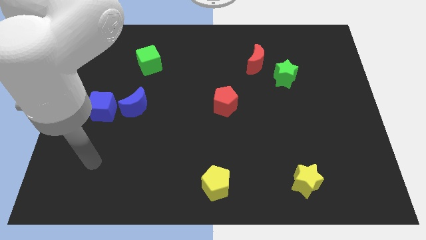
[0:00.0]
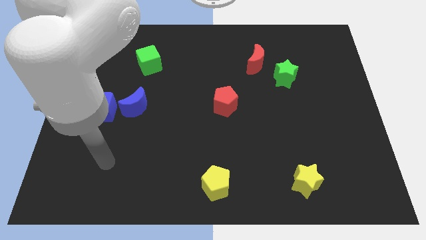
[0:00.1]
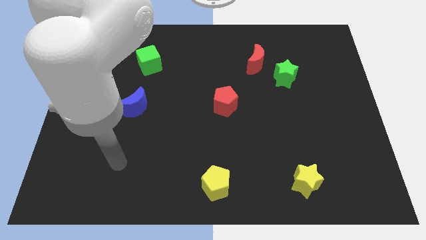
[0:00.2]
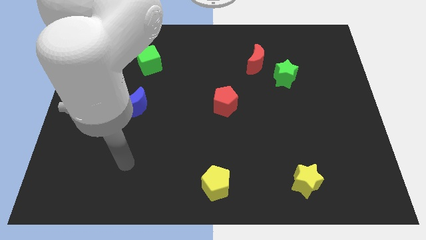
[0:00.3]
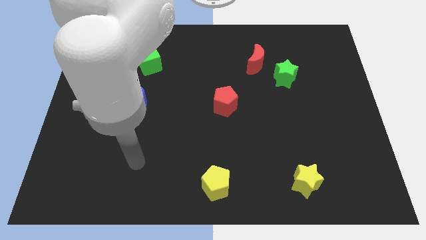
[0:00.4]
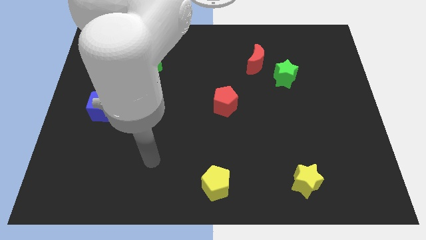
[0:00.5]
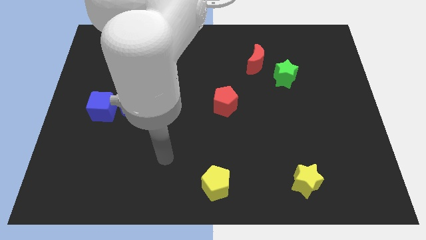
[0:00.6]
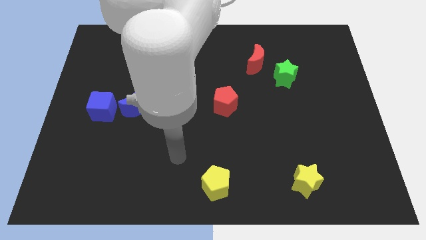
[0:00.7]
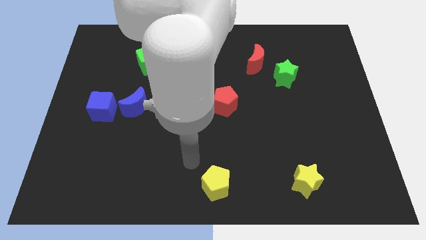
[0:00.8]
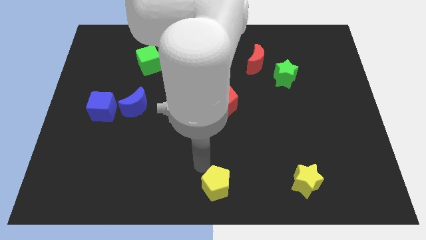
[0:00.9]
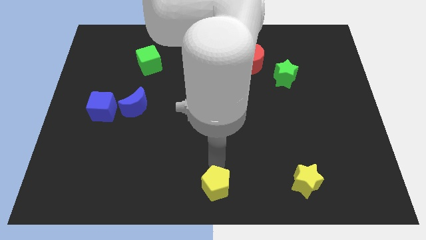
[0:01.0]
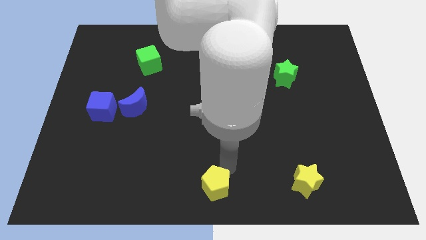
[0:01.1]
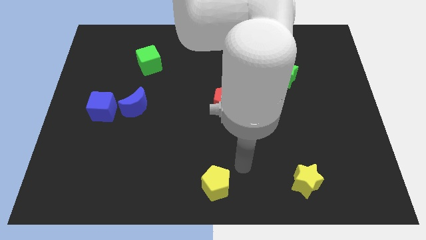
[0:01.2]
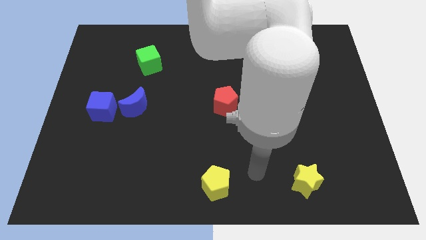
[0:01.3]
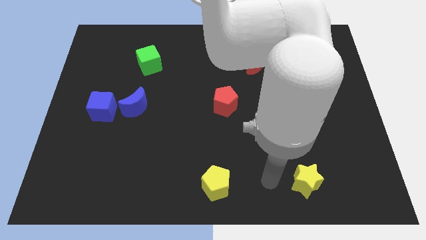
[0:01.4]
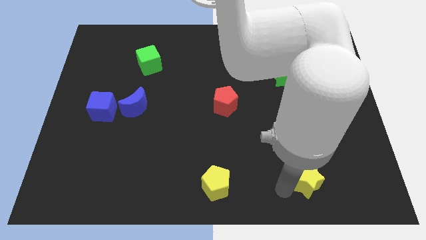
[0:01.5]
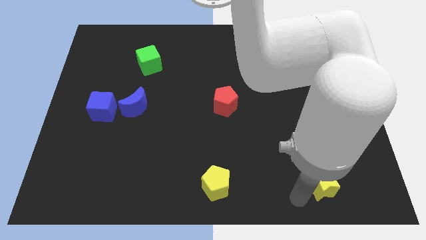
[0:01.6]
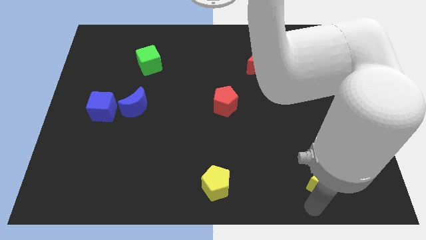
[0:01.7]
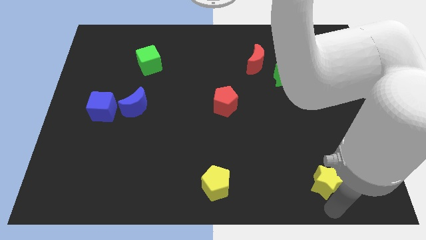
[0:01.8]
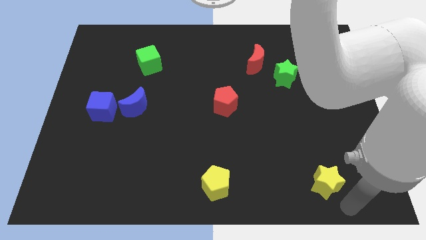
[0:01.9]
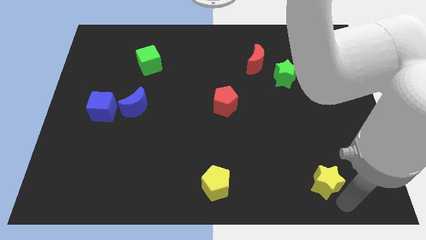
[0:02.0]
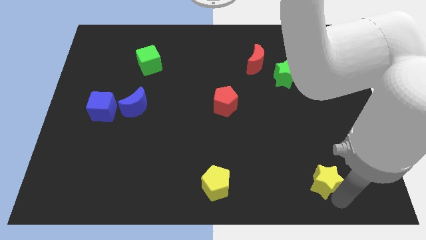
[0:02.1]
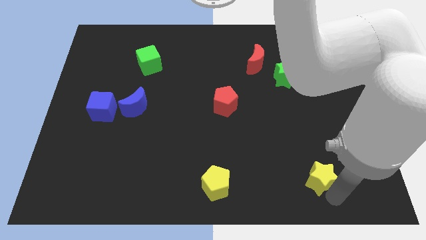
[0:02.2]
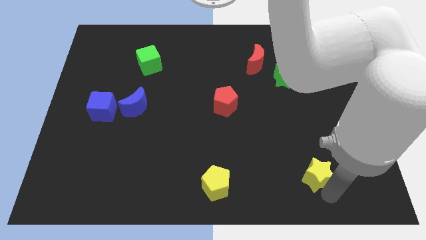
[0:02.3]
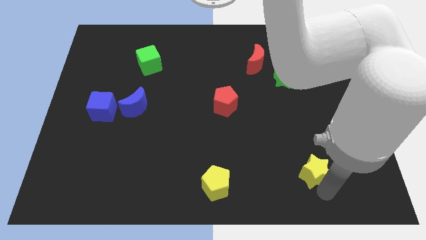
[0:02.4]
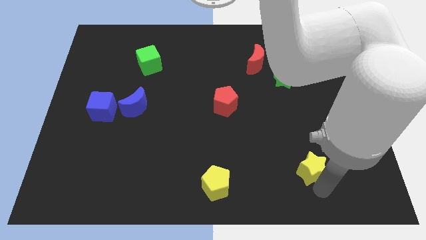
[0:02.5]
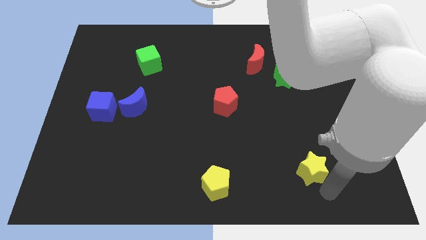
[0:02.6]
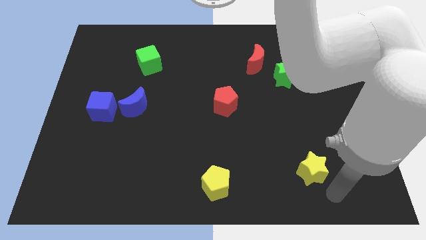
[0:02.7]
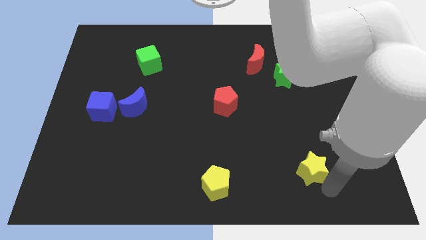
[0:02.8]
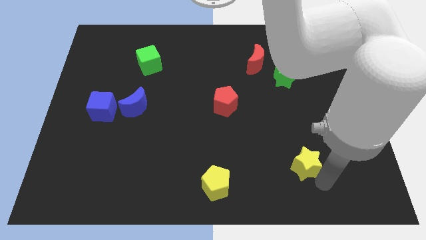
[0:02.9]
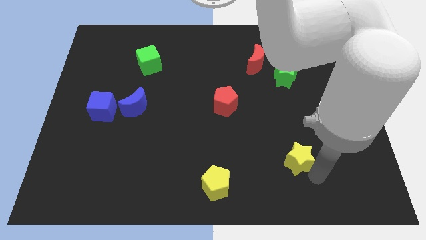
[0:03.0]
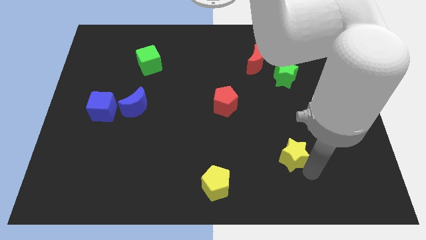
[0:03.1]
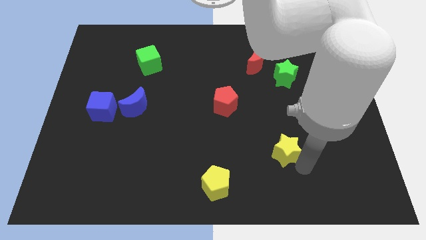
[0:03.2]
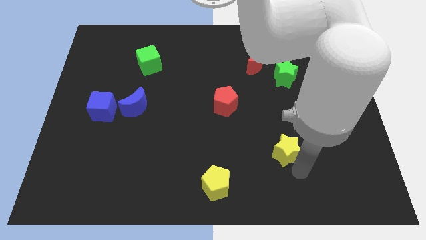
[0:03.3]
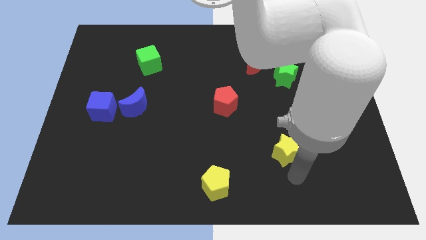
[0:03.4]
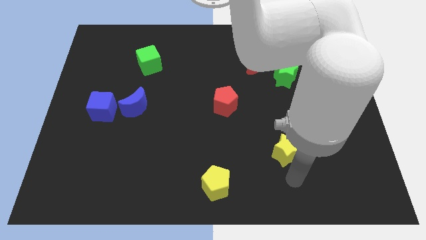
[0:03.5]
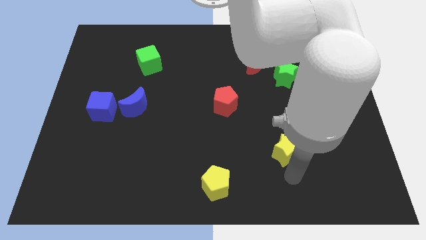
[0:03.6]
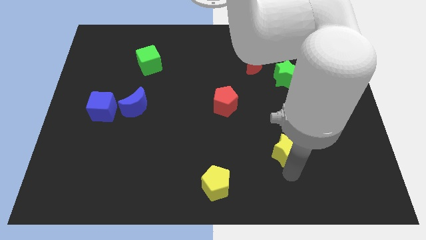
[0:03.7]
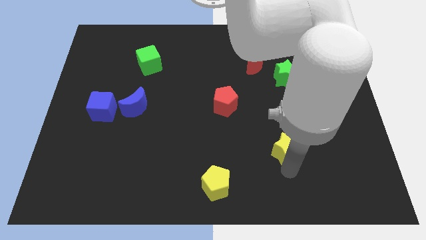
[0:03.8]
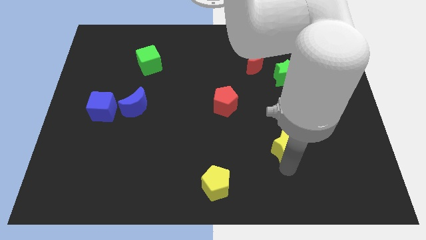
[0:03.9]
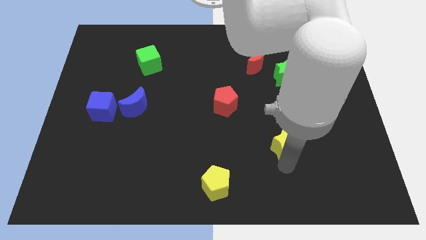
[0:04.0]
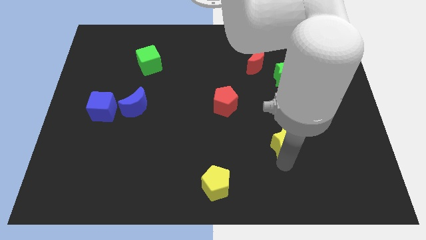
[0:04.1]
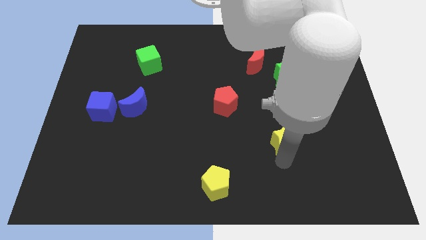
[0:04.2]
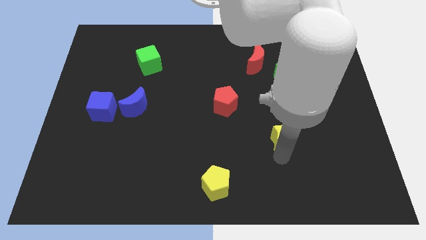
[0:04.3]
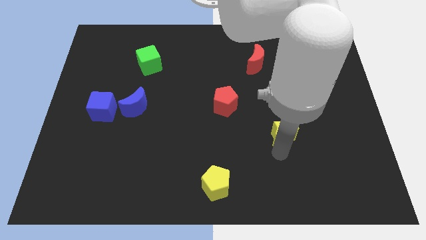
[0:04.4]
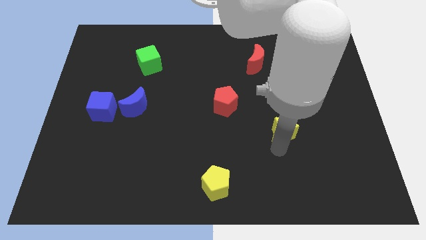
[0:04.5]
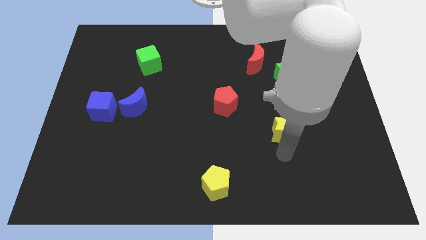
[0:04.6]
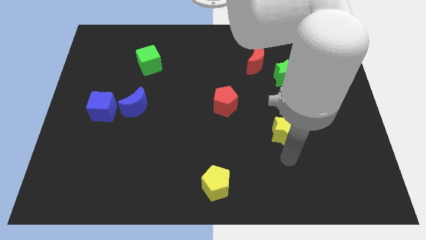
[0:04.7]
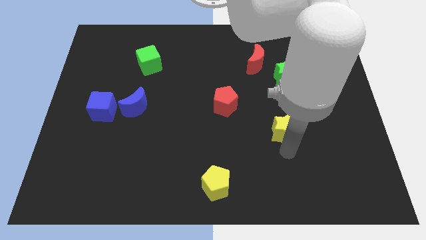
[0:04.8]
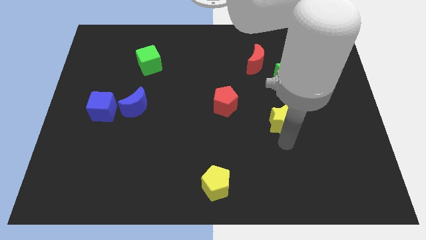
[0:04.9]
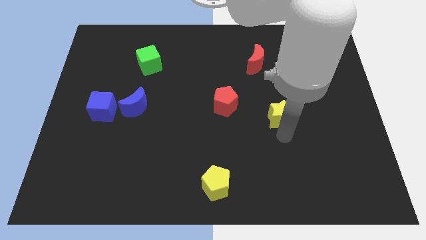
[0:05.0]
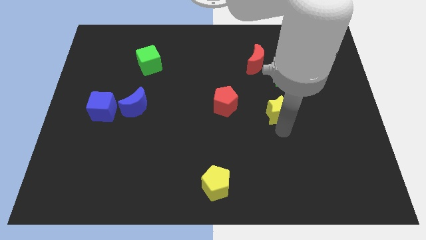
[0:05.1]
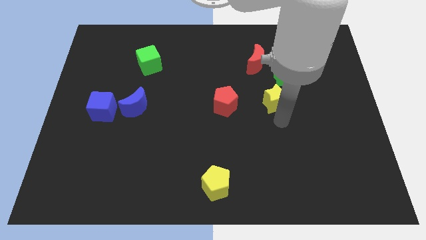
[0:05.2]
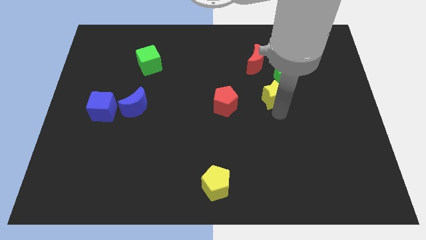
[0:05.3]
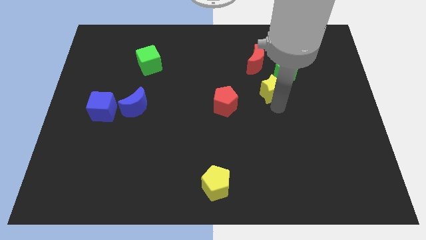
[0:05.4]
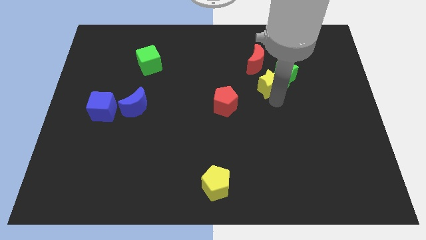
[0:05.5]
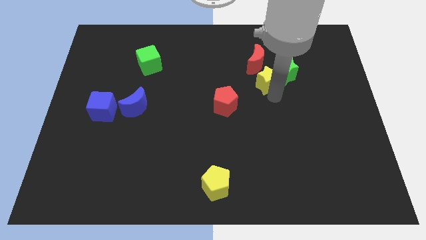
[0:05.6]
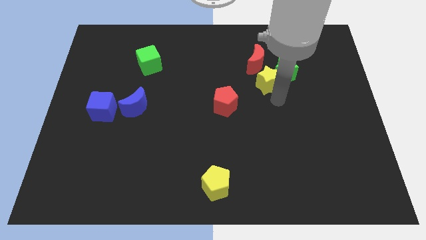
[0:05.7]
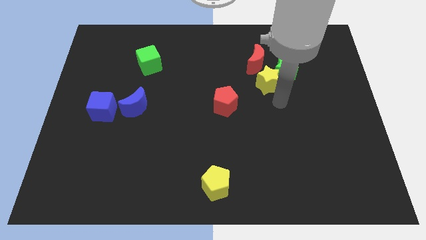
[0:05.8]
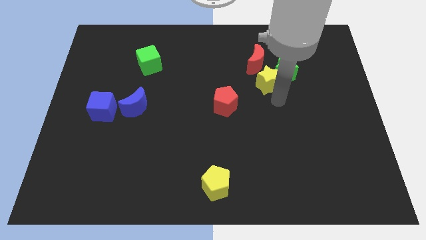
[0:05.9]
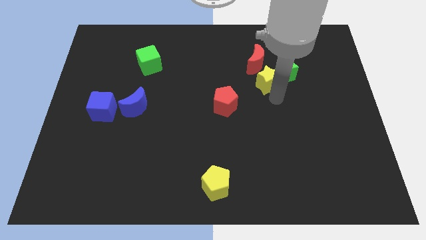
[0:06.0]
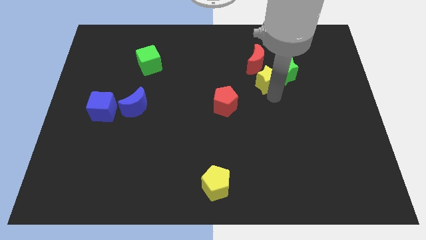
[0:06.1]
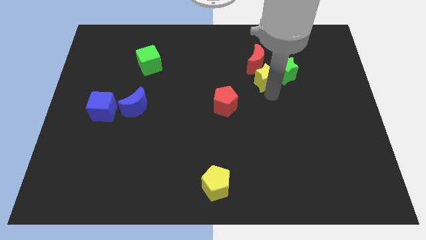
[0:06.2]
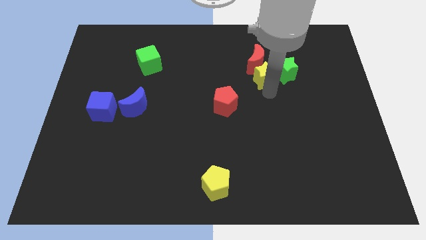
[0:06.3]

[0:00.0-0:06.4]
move the yellow star next to the red moon

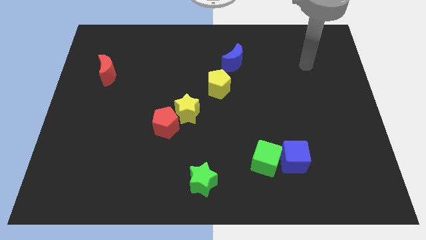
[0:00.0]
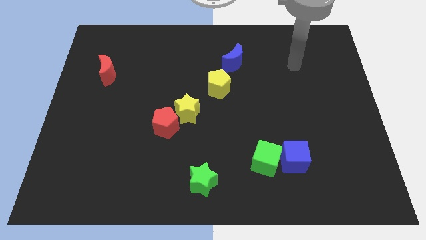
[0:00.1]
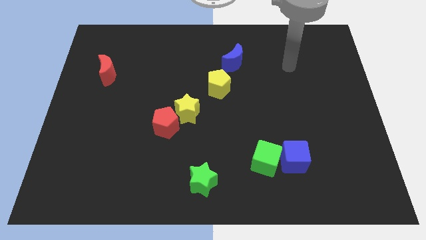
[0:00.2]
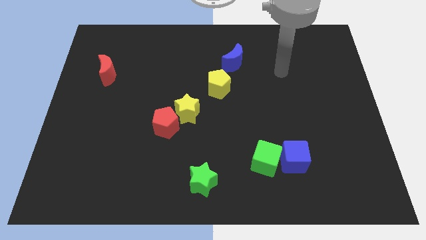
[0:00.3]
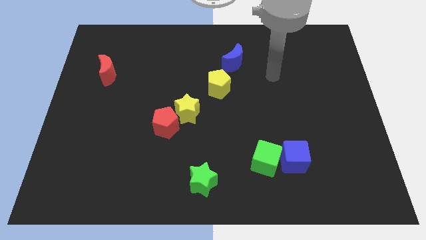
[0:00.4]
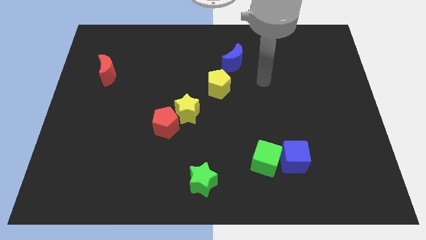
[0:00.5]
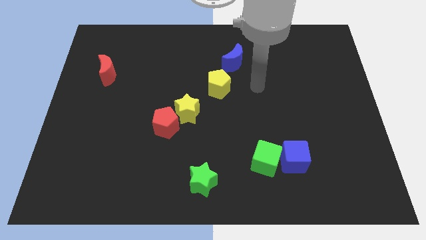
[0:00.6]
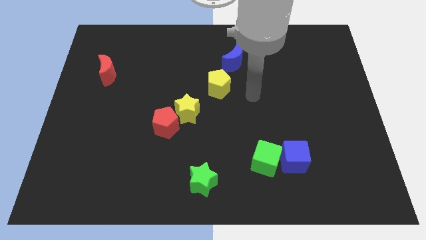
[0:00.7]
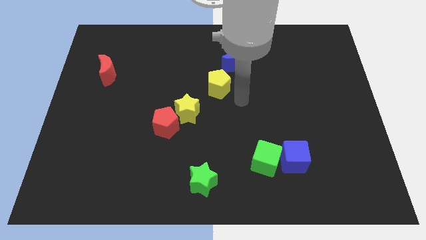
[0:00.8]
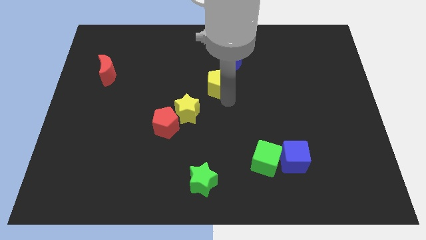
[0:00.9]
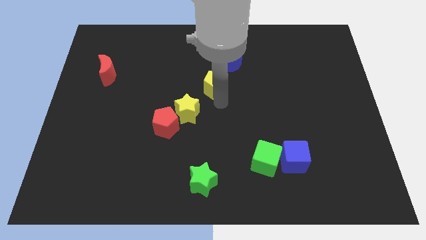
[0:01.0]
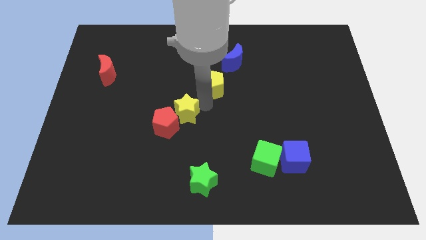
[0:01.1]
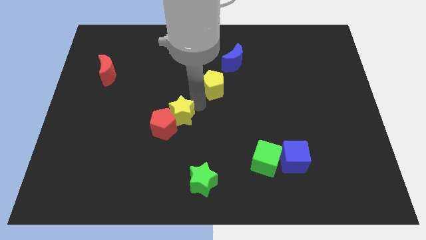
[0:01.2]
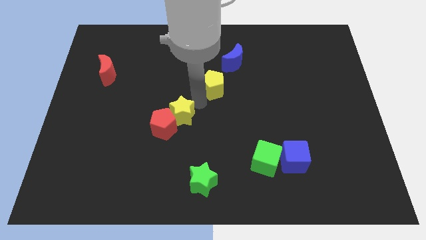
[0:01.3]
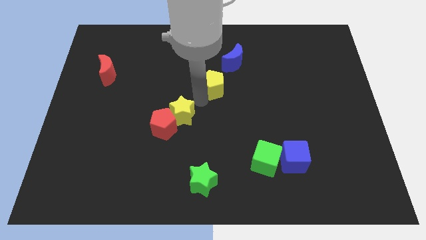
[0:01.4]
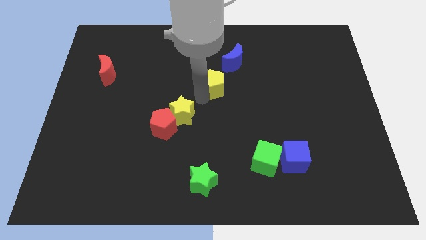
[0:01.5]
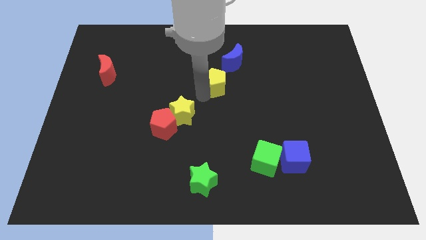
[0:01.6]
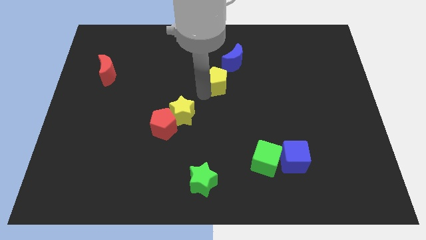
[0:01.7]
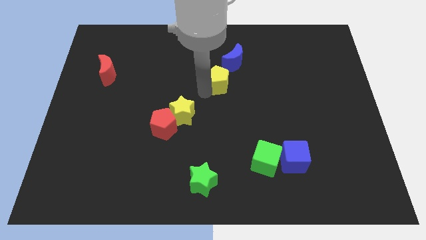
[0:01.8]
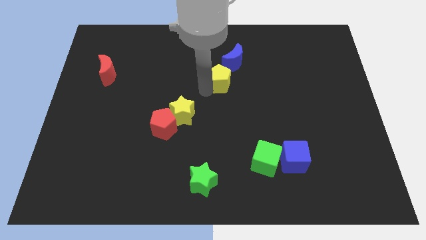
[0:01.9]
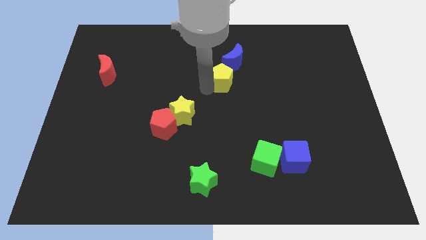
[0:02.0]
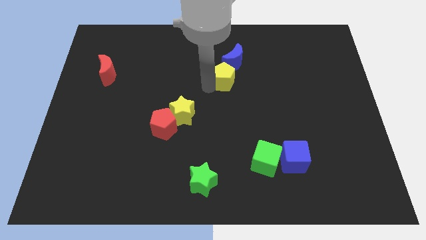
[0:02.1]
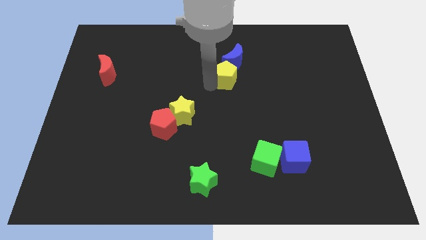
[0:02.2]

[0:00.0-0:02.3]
put the yellow pentagon close to the blue moon
